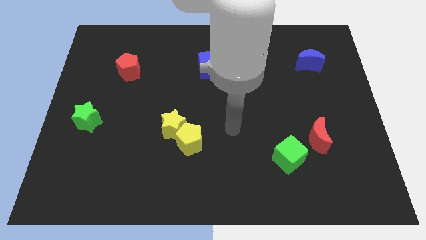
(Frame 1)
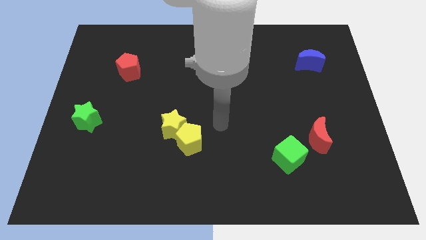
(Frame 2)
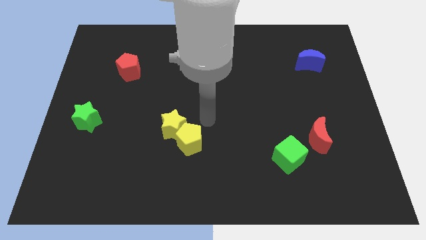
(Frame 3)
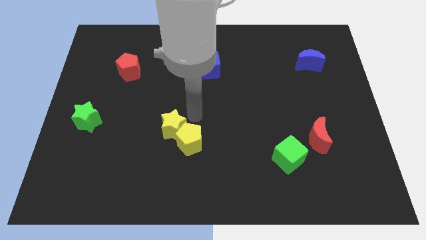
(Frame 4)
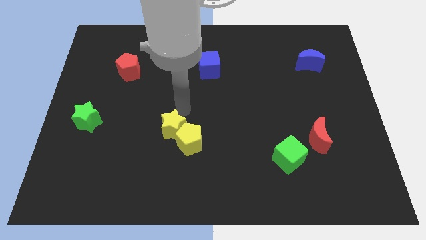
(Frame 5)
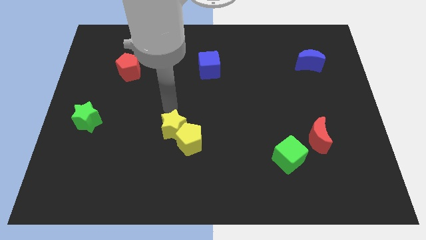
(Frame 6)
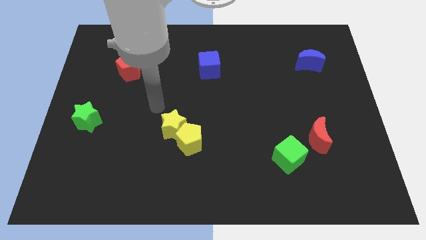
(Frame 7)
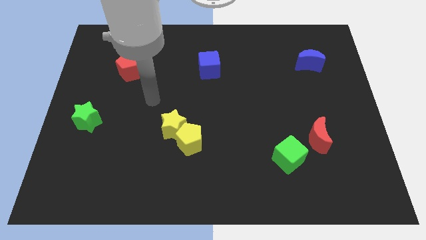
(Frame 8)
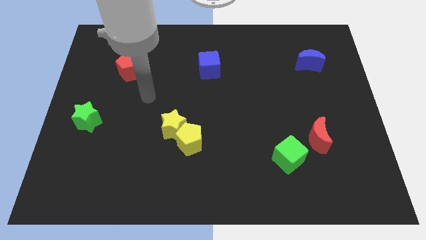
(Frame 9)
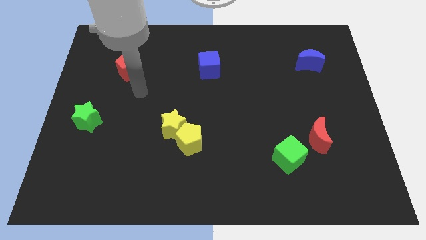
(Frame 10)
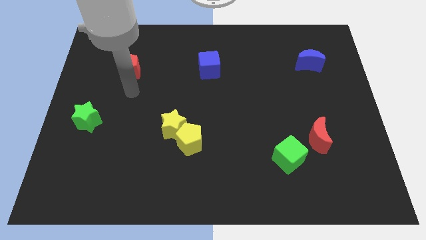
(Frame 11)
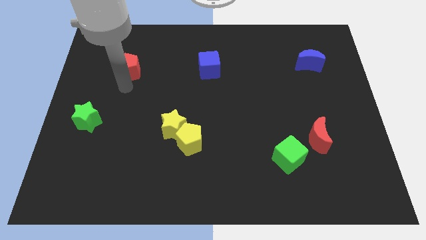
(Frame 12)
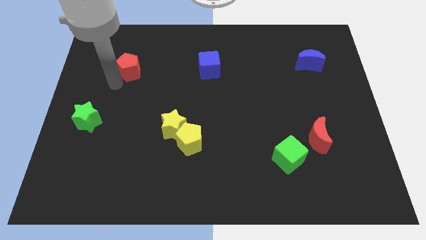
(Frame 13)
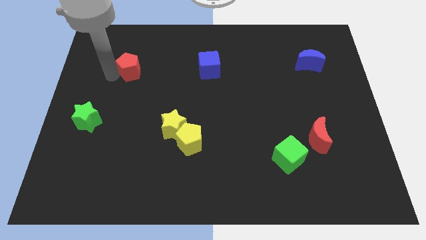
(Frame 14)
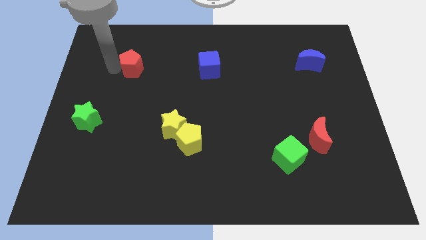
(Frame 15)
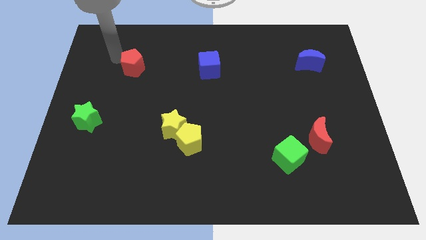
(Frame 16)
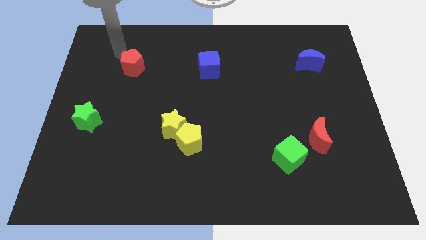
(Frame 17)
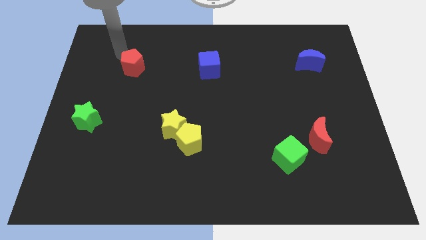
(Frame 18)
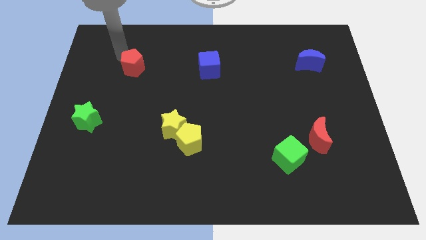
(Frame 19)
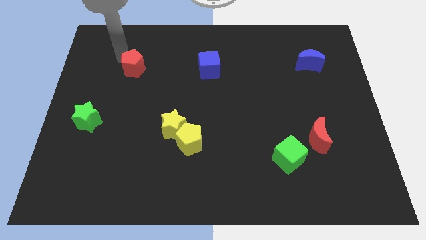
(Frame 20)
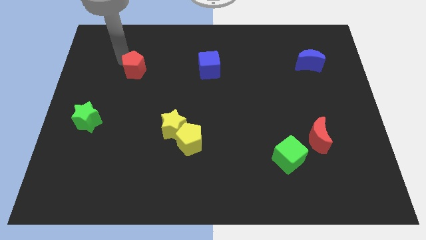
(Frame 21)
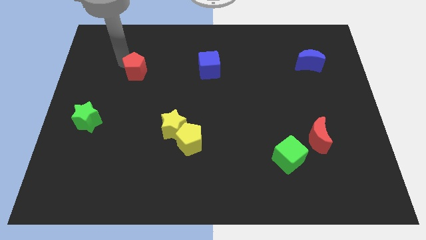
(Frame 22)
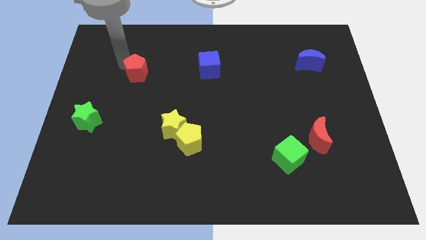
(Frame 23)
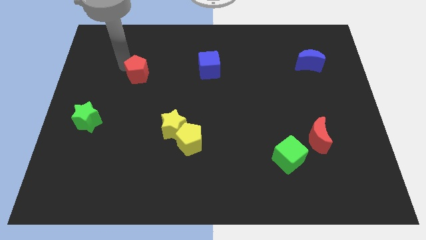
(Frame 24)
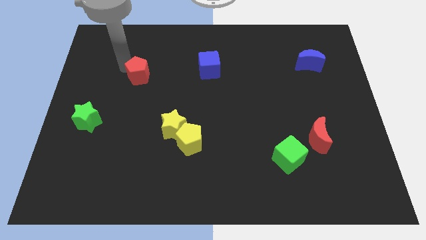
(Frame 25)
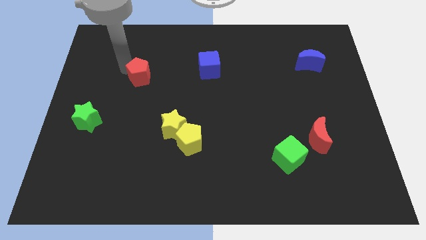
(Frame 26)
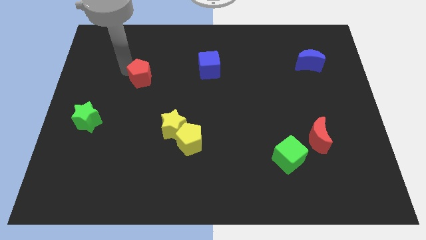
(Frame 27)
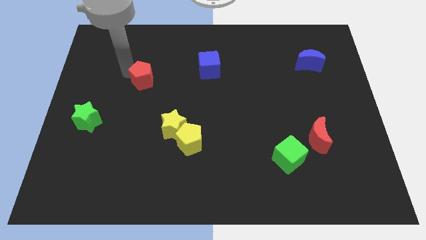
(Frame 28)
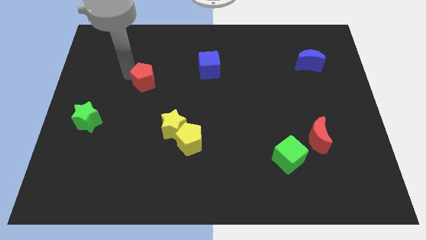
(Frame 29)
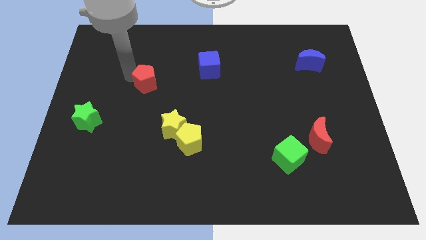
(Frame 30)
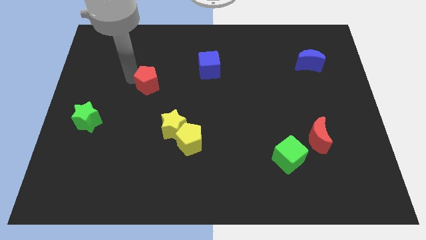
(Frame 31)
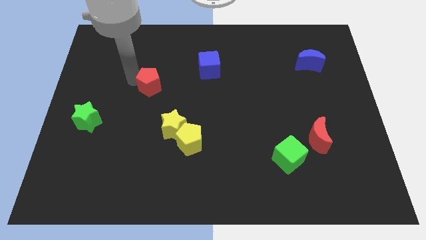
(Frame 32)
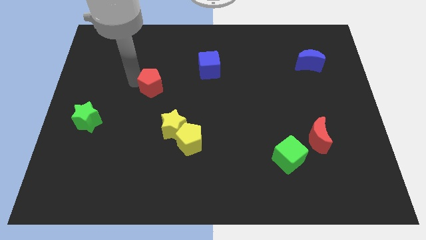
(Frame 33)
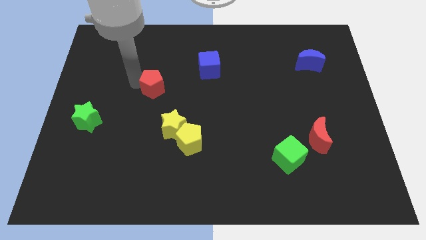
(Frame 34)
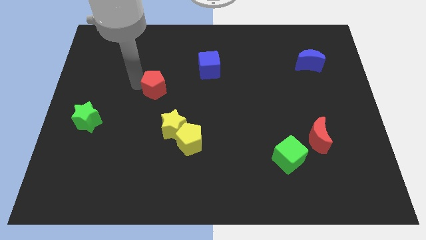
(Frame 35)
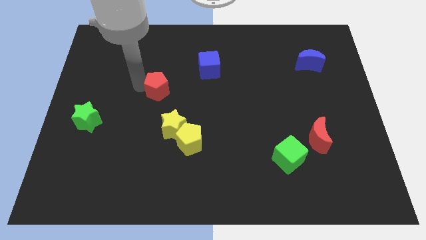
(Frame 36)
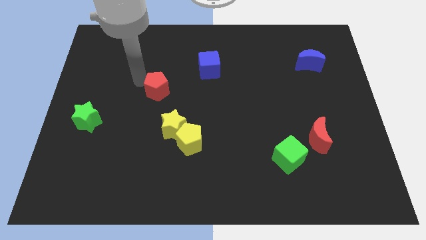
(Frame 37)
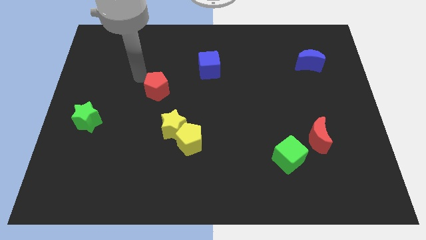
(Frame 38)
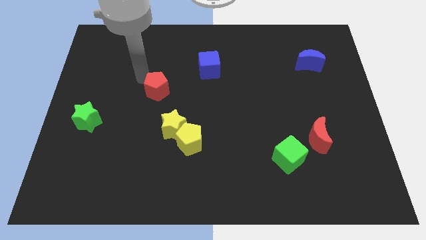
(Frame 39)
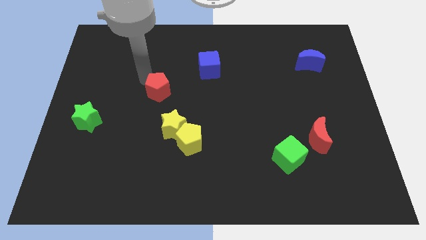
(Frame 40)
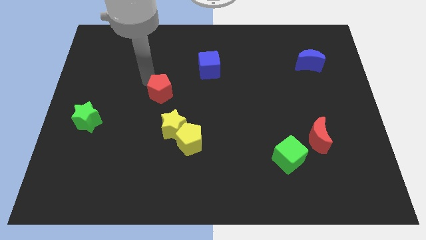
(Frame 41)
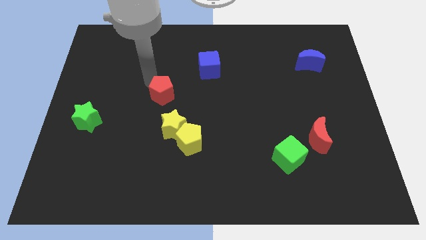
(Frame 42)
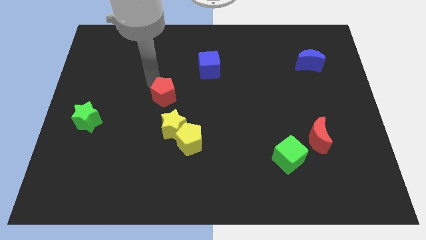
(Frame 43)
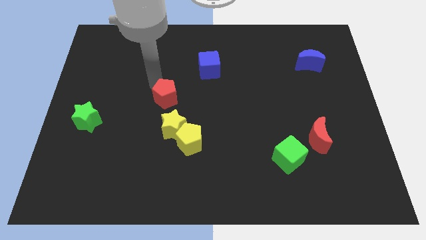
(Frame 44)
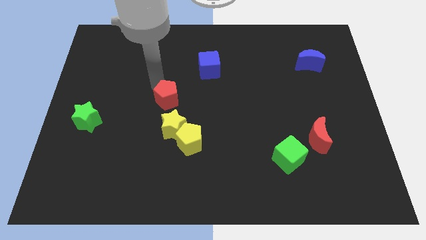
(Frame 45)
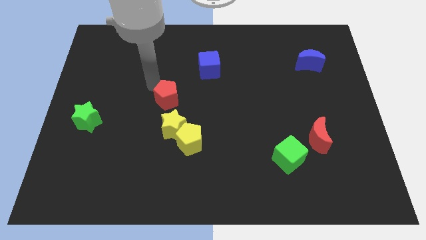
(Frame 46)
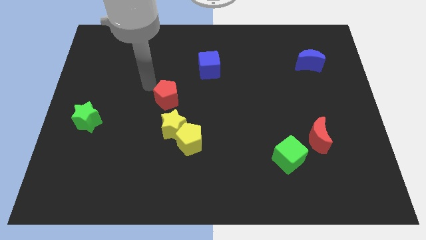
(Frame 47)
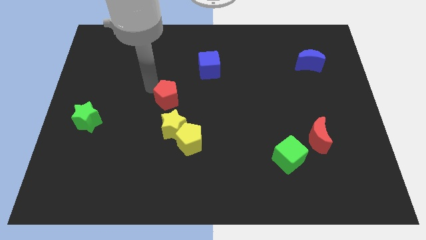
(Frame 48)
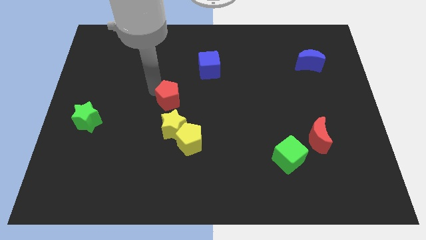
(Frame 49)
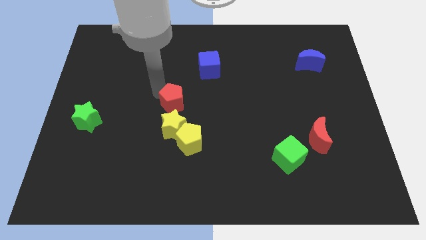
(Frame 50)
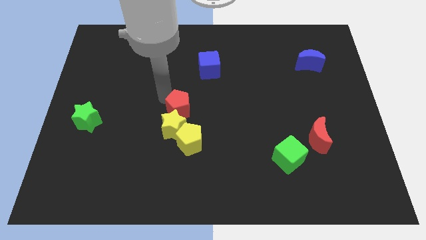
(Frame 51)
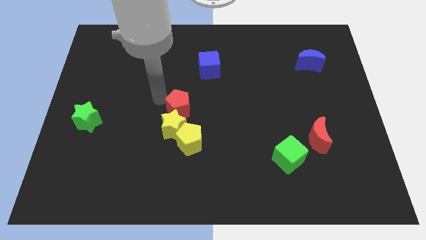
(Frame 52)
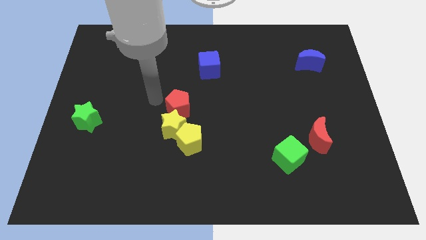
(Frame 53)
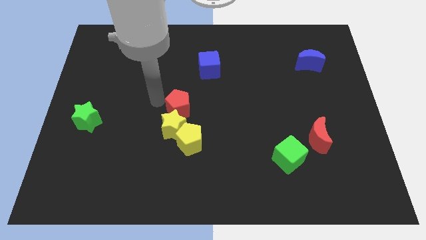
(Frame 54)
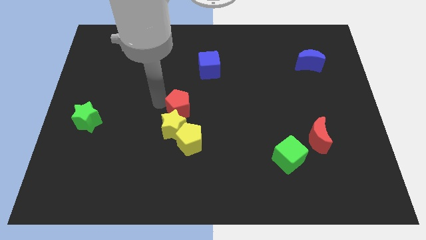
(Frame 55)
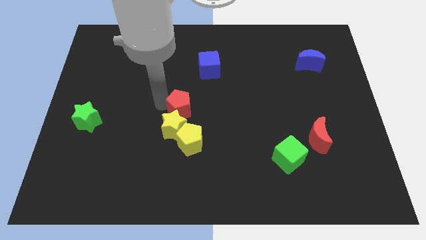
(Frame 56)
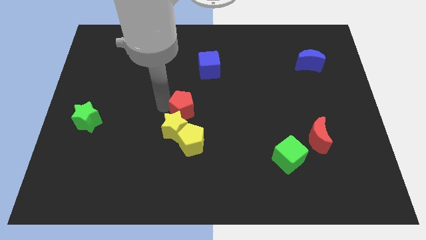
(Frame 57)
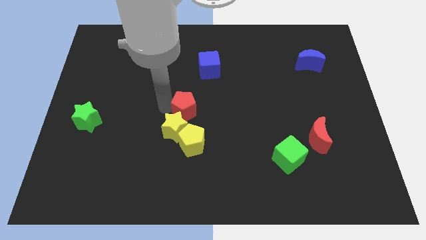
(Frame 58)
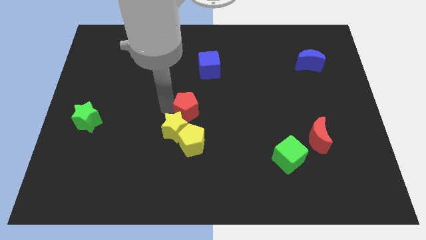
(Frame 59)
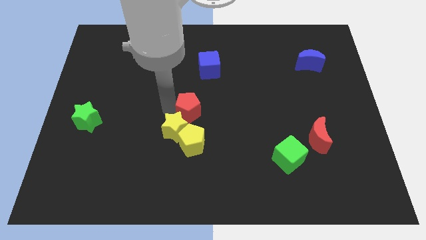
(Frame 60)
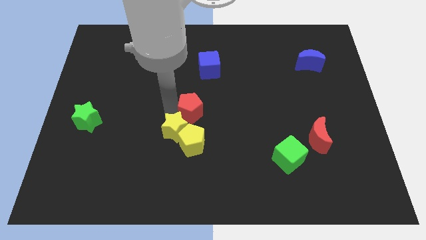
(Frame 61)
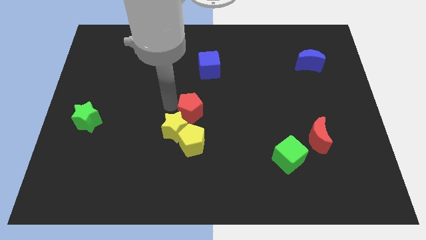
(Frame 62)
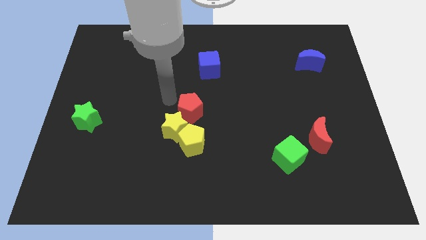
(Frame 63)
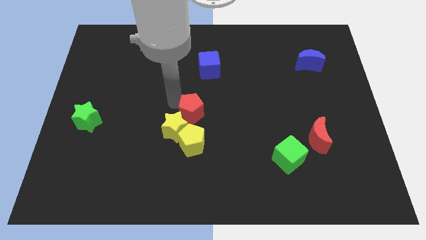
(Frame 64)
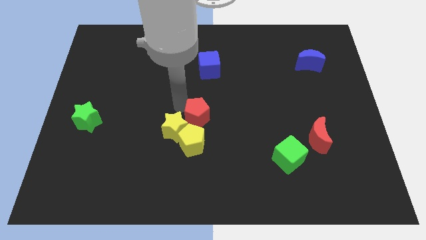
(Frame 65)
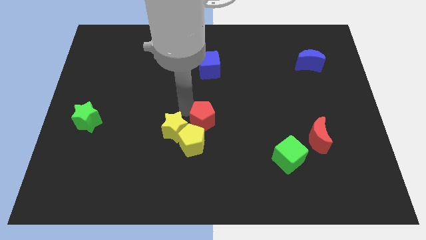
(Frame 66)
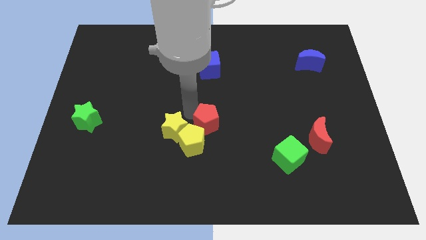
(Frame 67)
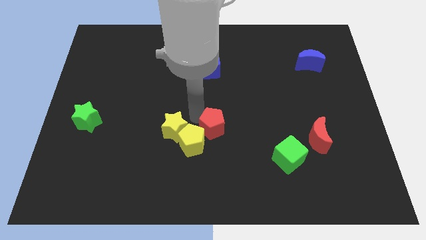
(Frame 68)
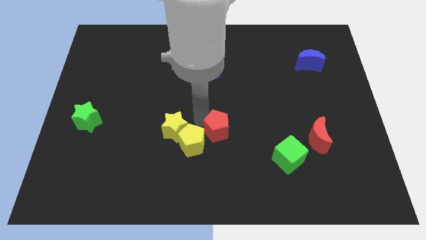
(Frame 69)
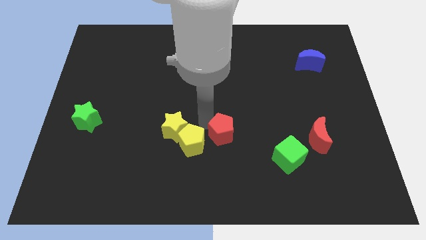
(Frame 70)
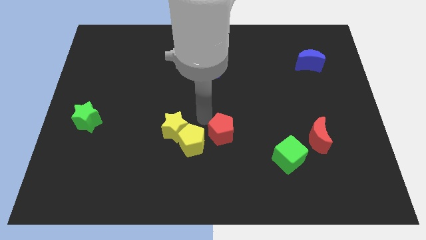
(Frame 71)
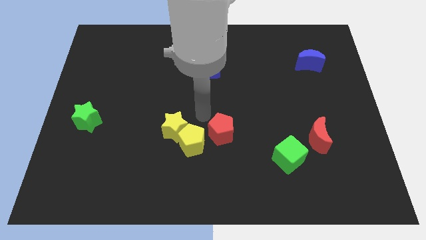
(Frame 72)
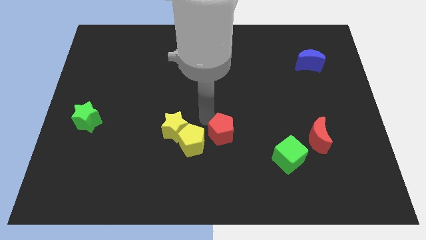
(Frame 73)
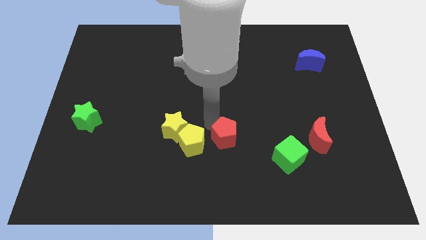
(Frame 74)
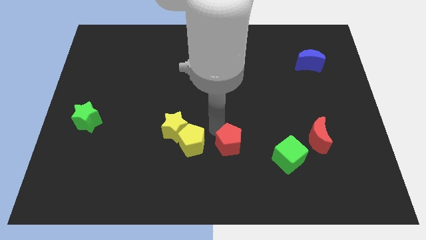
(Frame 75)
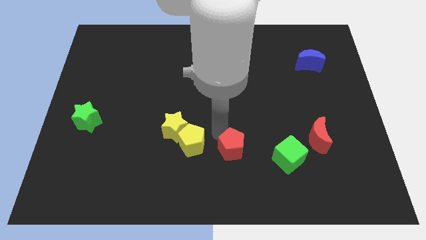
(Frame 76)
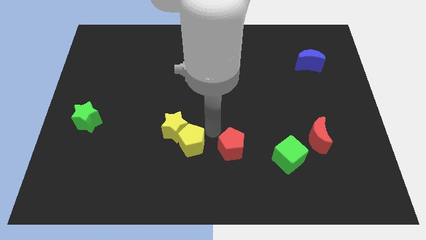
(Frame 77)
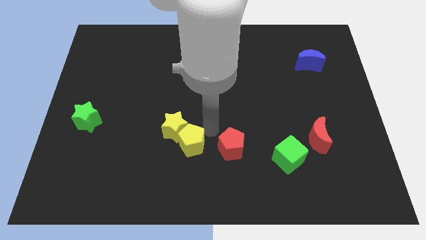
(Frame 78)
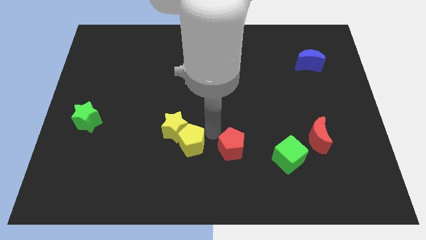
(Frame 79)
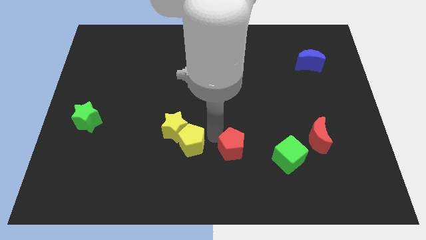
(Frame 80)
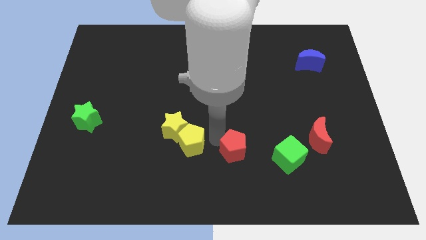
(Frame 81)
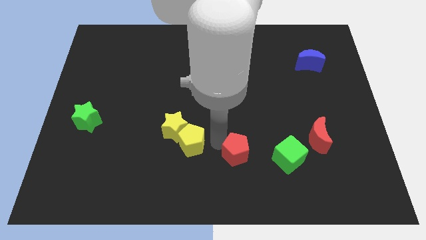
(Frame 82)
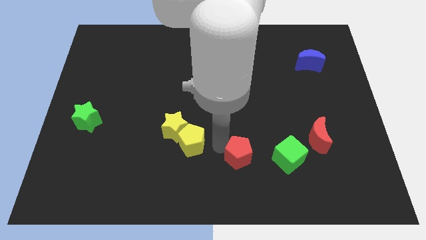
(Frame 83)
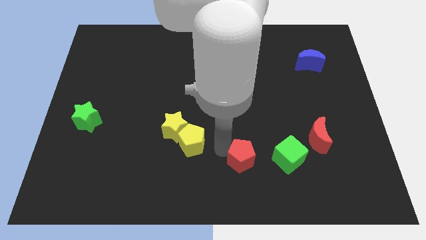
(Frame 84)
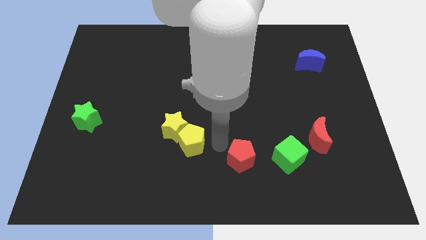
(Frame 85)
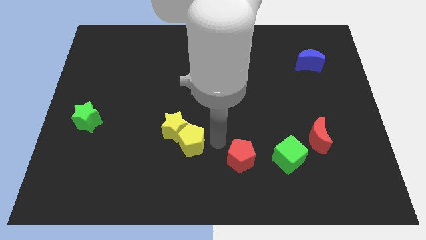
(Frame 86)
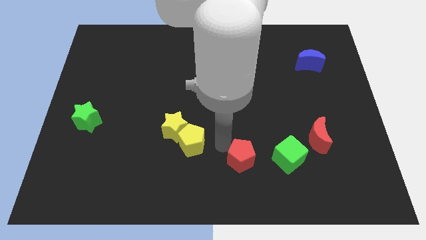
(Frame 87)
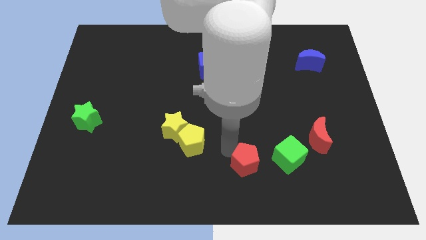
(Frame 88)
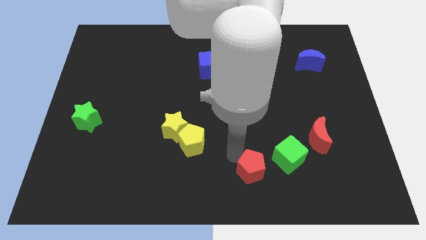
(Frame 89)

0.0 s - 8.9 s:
put the red pentagon to the bottom left of the green cube
